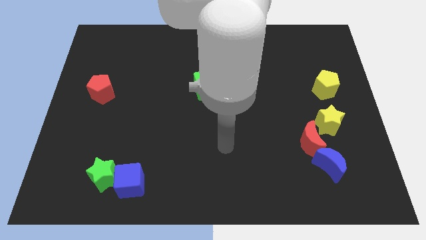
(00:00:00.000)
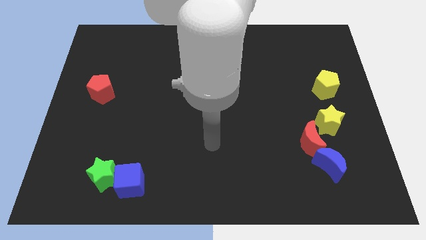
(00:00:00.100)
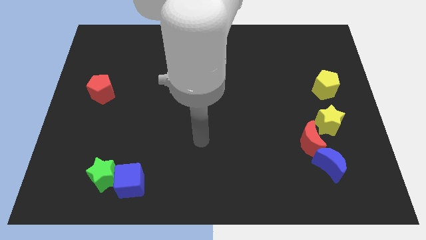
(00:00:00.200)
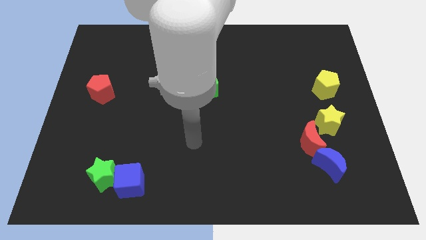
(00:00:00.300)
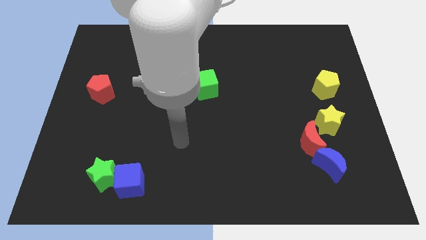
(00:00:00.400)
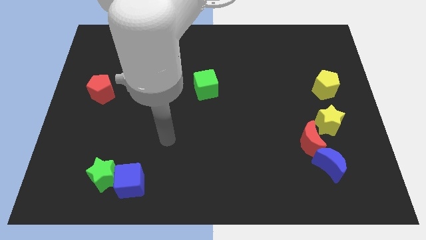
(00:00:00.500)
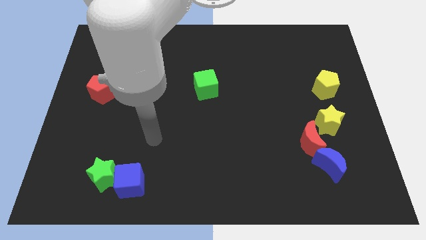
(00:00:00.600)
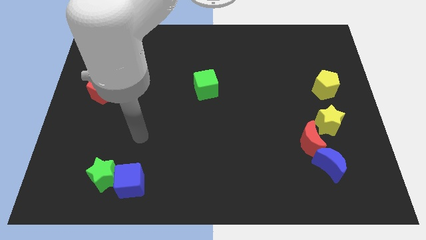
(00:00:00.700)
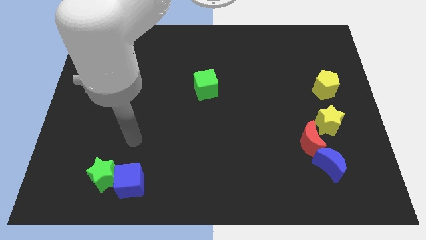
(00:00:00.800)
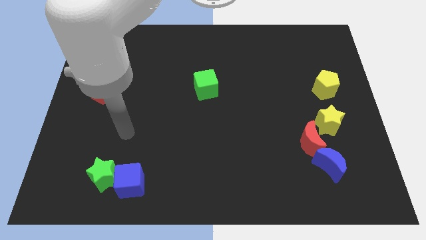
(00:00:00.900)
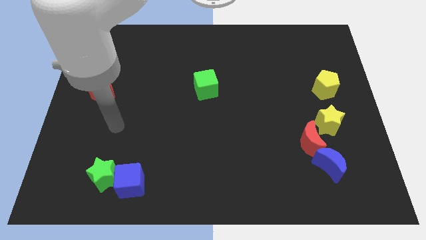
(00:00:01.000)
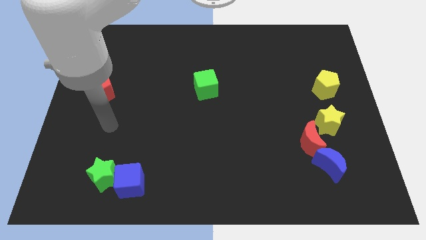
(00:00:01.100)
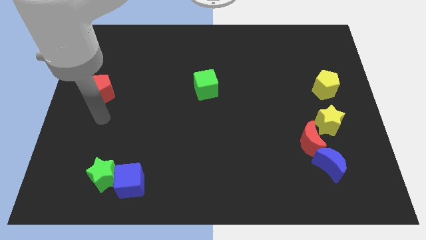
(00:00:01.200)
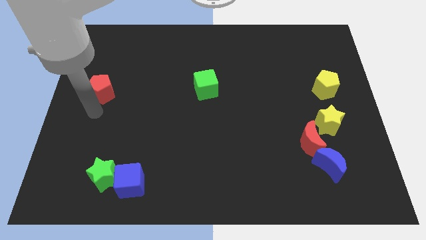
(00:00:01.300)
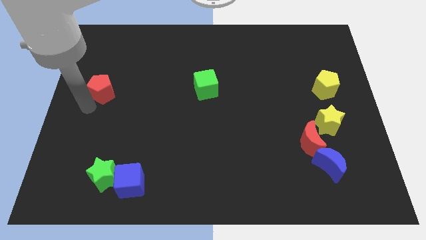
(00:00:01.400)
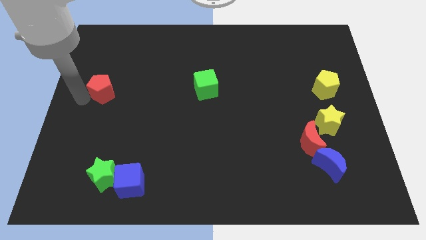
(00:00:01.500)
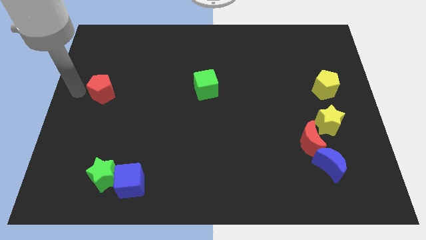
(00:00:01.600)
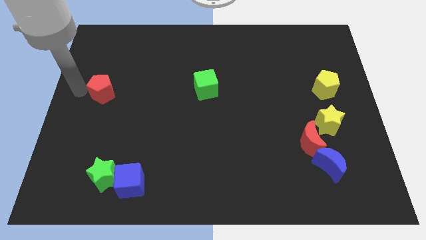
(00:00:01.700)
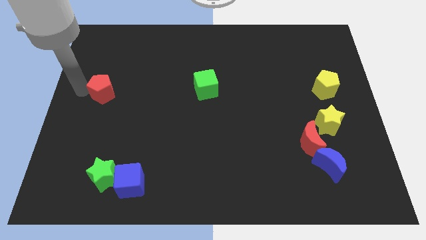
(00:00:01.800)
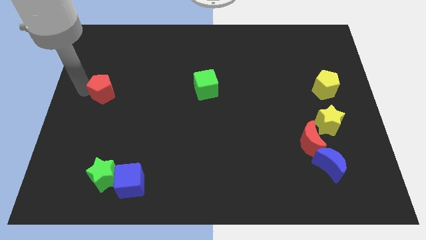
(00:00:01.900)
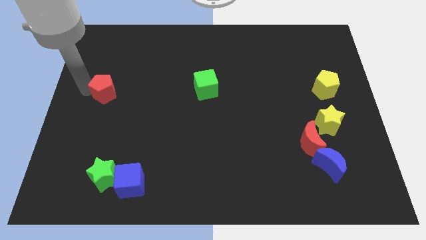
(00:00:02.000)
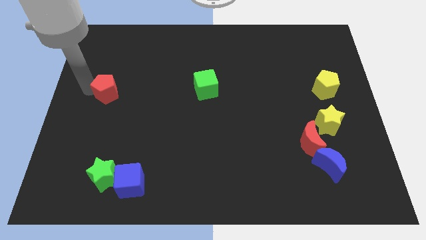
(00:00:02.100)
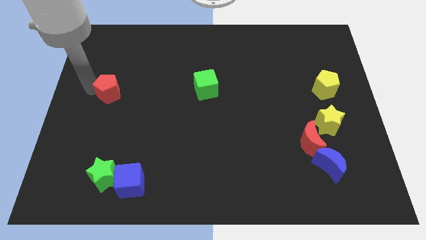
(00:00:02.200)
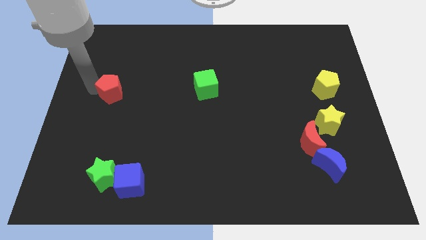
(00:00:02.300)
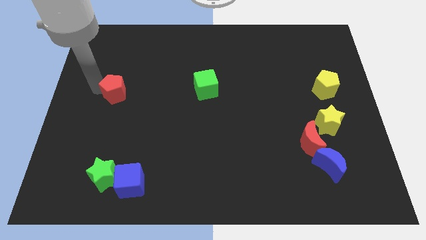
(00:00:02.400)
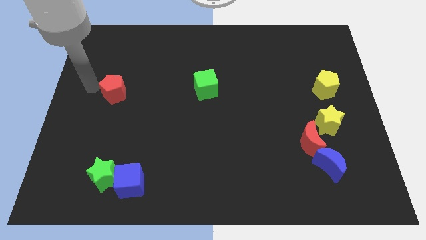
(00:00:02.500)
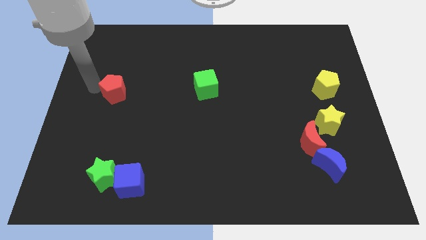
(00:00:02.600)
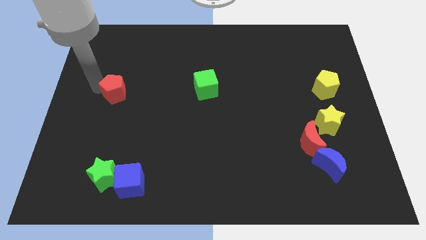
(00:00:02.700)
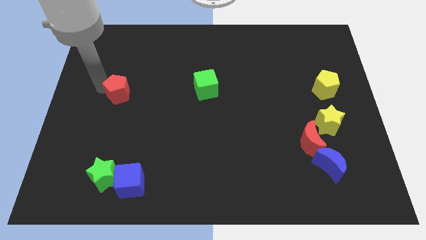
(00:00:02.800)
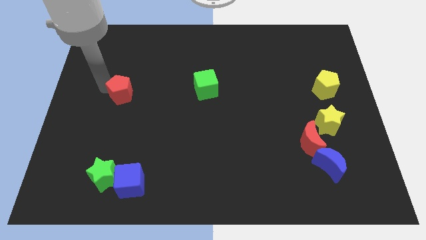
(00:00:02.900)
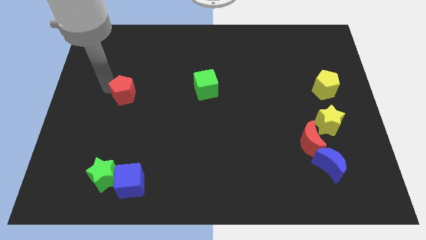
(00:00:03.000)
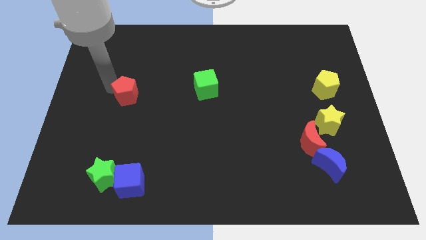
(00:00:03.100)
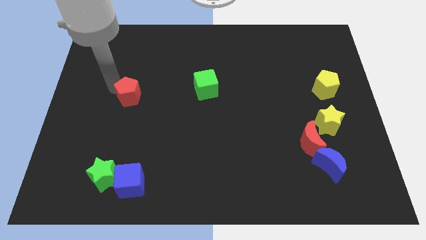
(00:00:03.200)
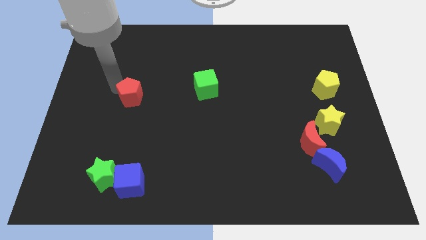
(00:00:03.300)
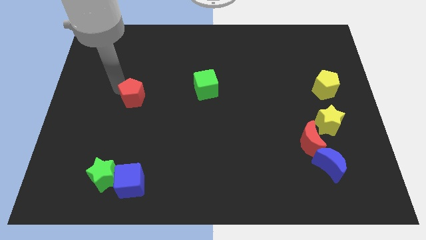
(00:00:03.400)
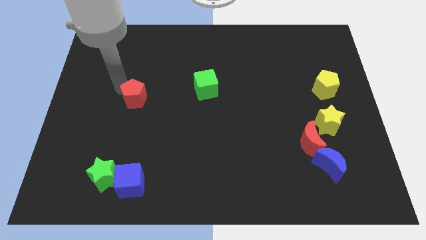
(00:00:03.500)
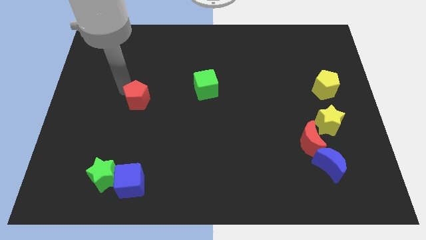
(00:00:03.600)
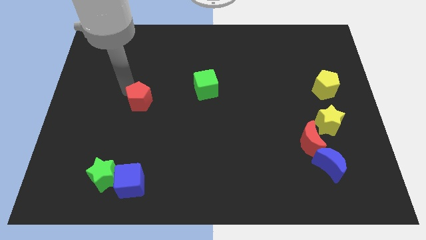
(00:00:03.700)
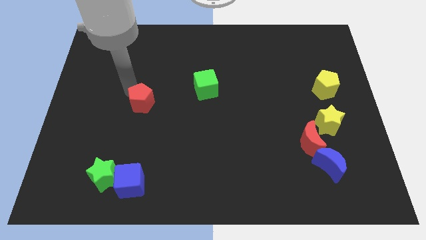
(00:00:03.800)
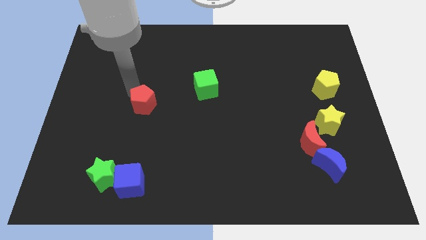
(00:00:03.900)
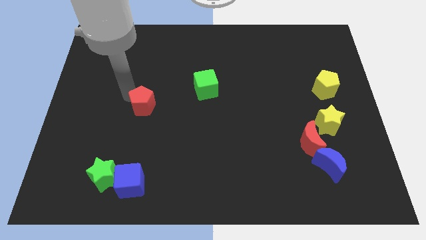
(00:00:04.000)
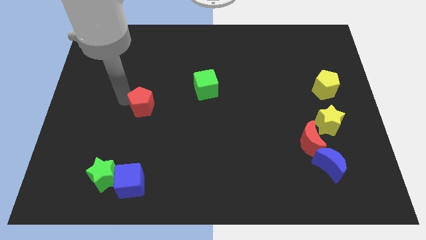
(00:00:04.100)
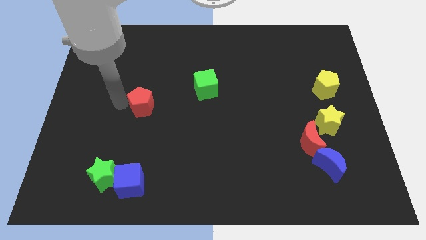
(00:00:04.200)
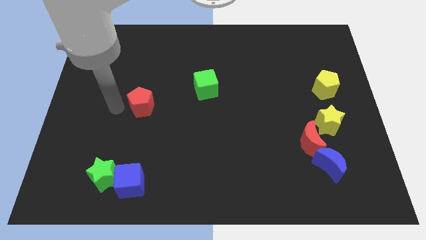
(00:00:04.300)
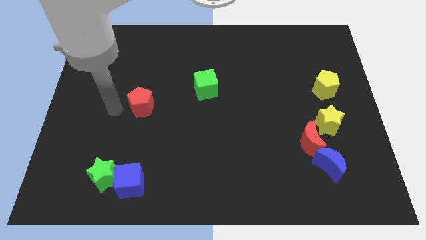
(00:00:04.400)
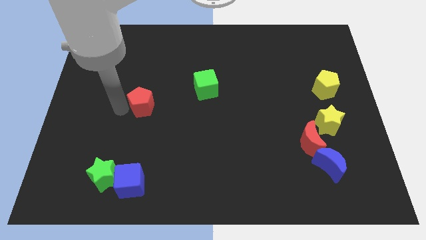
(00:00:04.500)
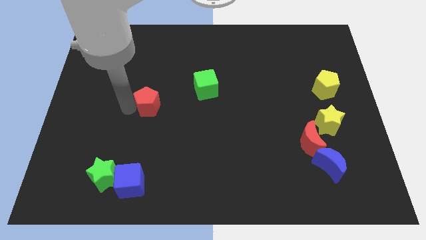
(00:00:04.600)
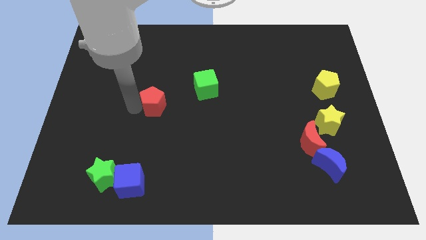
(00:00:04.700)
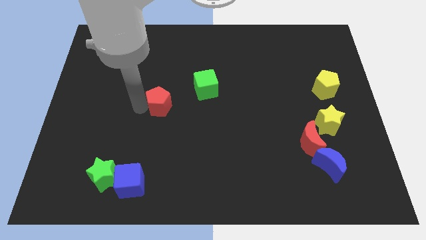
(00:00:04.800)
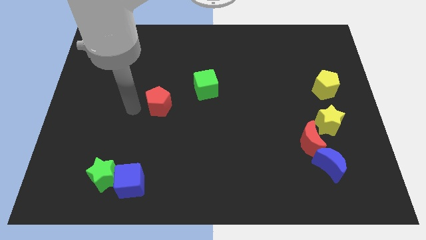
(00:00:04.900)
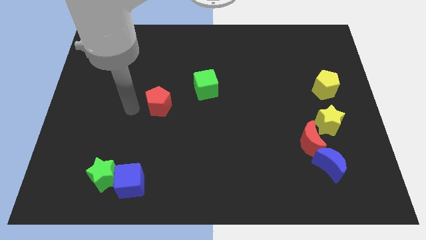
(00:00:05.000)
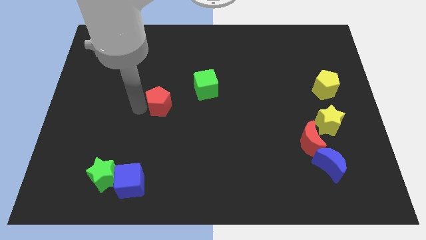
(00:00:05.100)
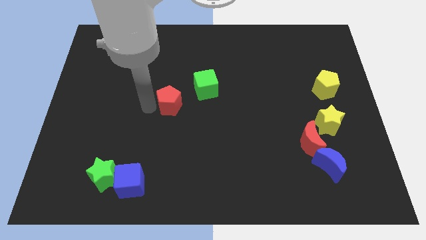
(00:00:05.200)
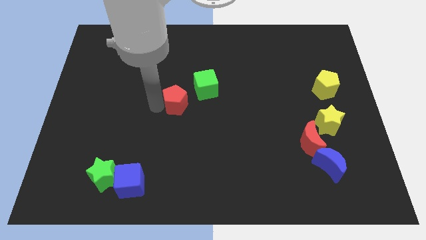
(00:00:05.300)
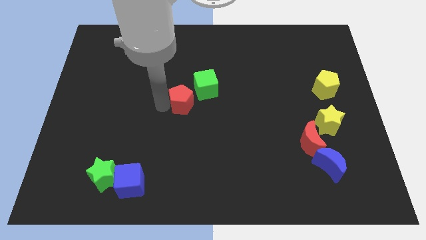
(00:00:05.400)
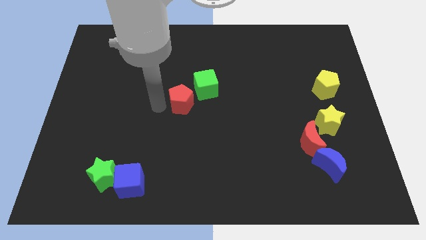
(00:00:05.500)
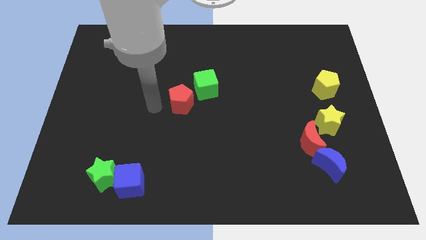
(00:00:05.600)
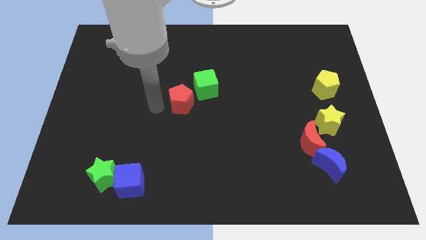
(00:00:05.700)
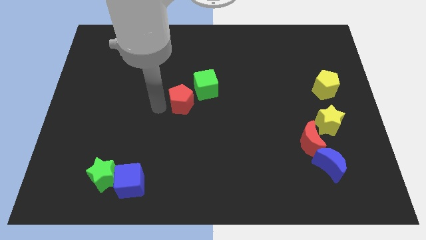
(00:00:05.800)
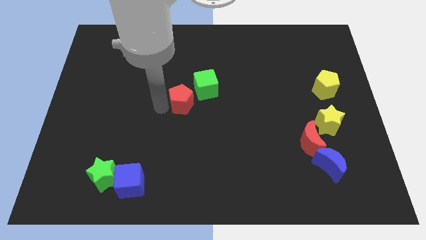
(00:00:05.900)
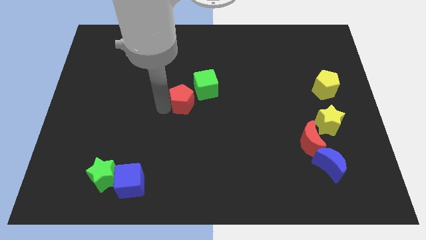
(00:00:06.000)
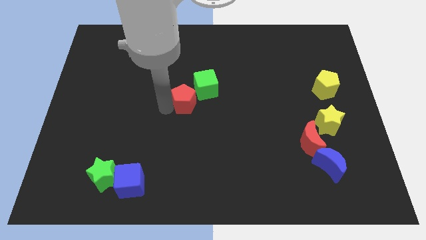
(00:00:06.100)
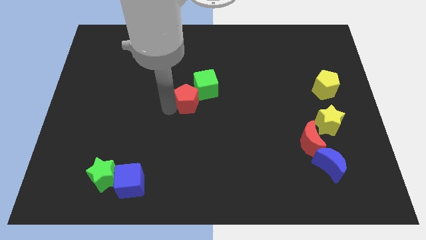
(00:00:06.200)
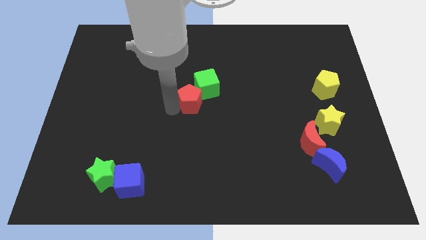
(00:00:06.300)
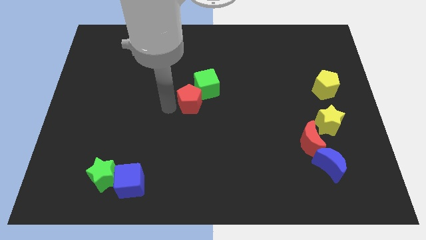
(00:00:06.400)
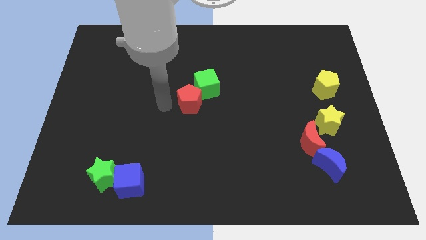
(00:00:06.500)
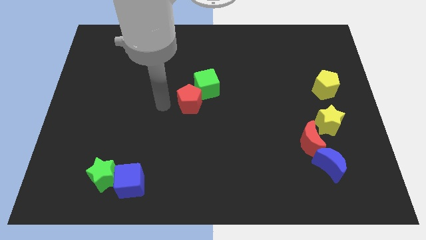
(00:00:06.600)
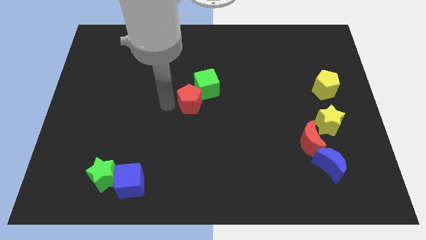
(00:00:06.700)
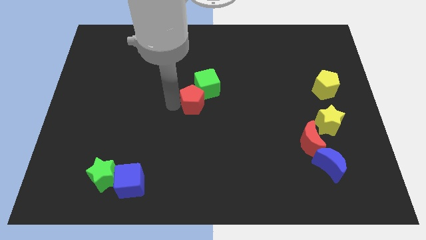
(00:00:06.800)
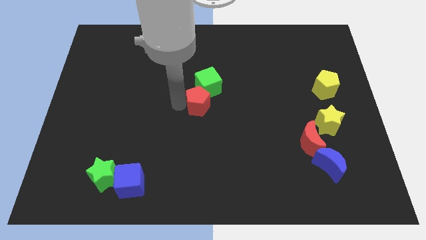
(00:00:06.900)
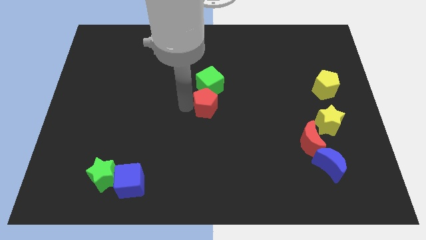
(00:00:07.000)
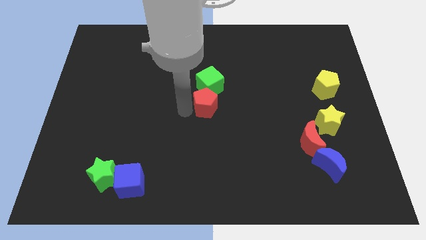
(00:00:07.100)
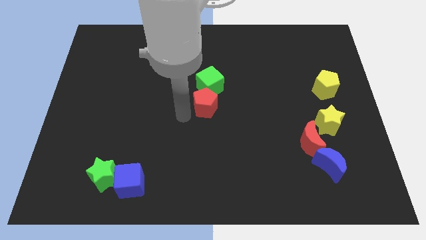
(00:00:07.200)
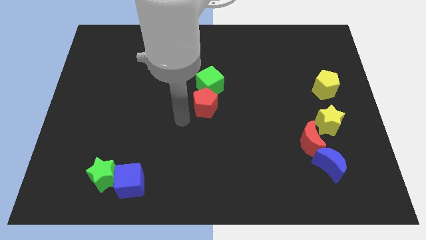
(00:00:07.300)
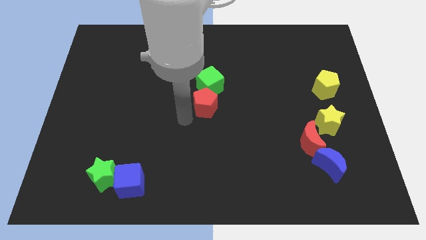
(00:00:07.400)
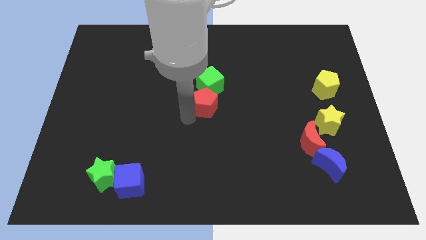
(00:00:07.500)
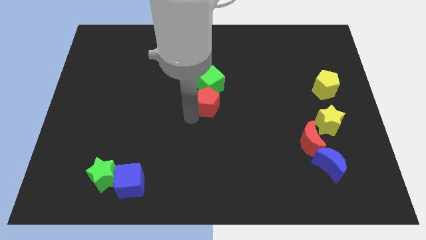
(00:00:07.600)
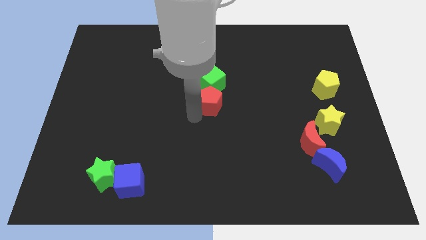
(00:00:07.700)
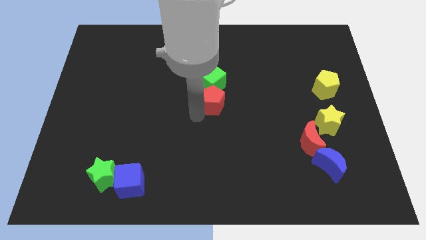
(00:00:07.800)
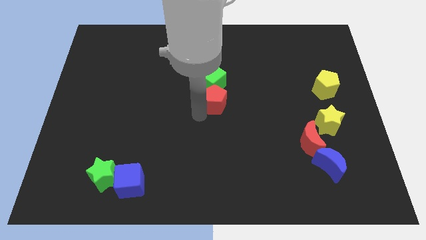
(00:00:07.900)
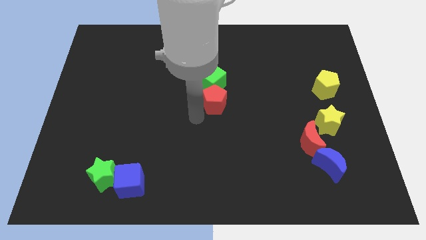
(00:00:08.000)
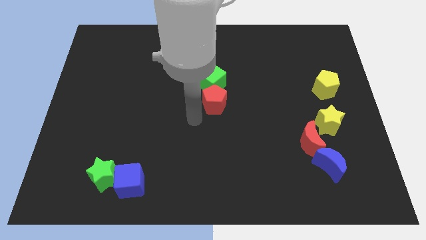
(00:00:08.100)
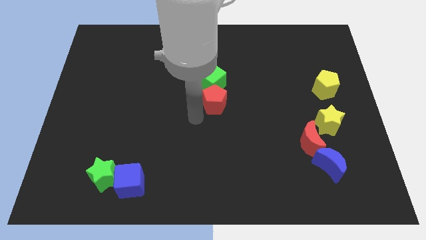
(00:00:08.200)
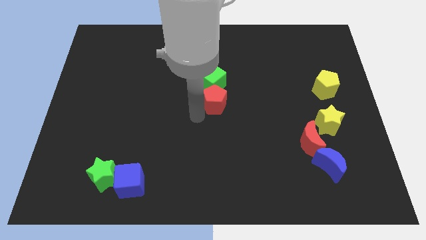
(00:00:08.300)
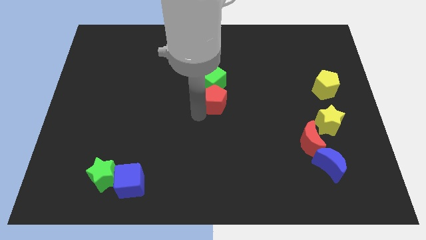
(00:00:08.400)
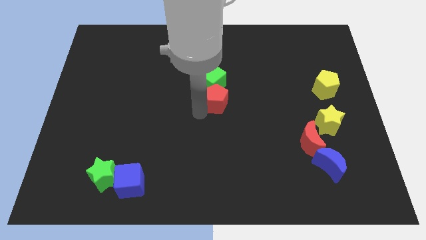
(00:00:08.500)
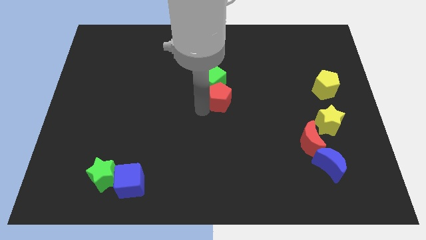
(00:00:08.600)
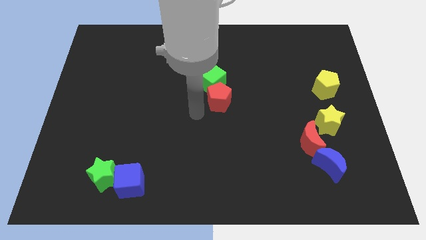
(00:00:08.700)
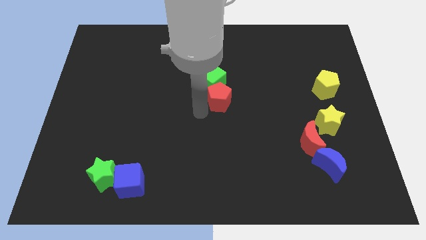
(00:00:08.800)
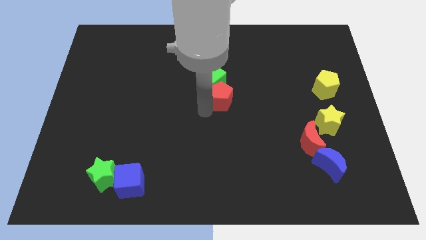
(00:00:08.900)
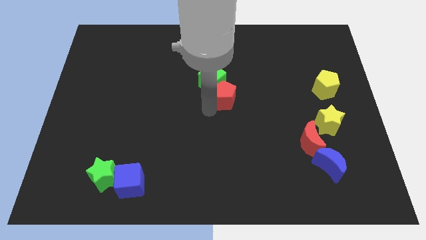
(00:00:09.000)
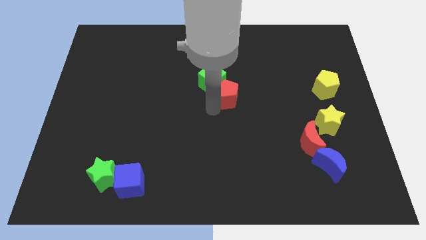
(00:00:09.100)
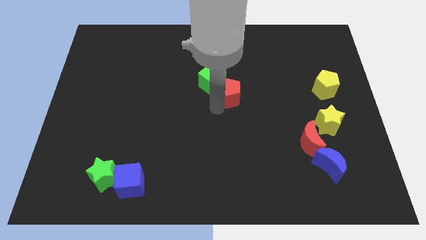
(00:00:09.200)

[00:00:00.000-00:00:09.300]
push the red pentagon to the right side of the green cube
